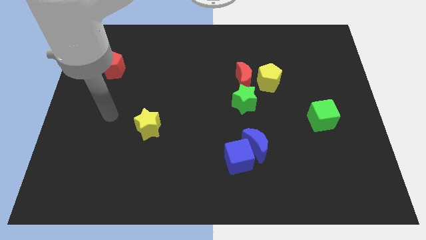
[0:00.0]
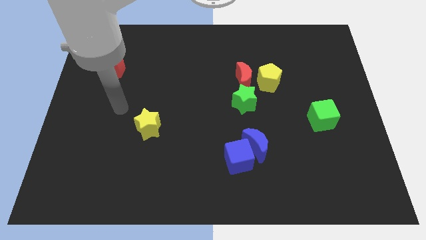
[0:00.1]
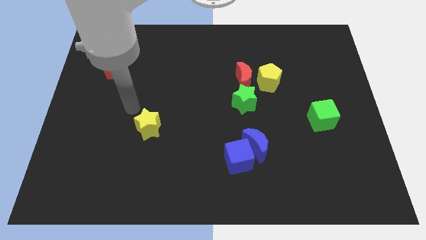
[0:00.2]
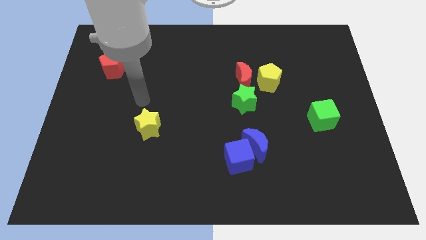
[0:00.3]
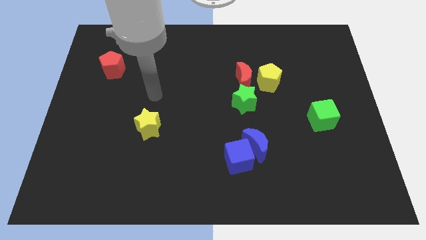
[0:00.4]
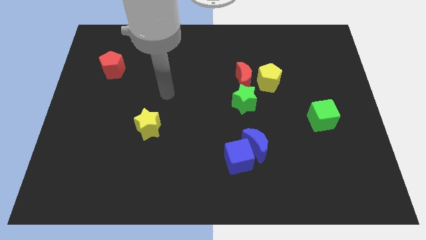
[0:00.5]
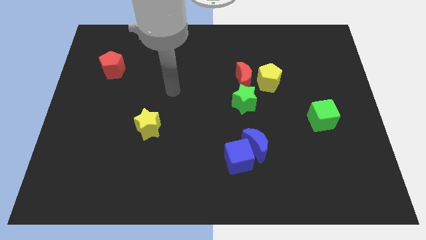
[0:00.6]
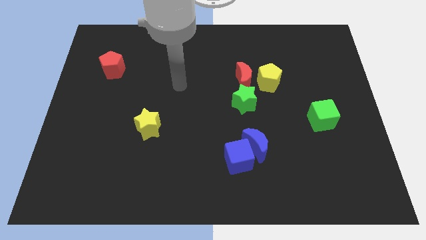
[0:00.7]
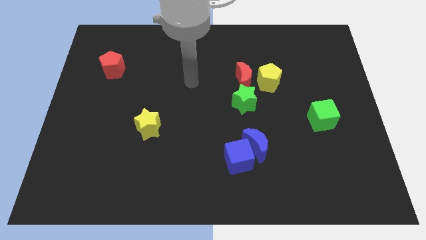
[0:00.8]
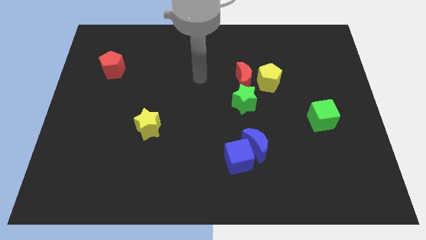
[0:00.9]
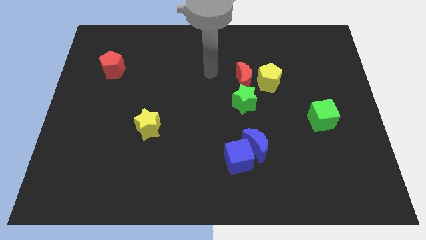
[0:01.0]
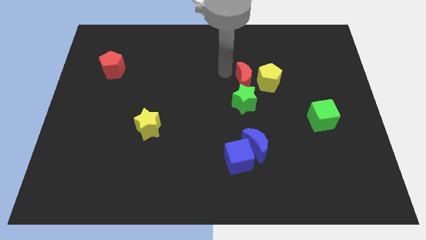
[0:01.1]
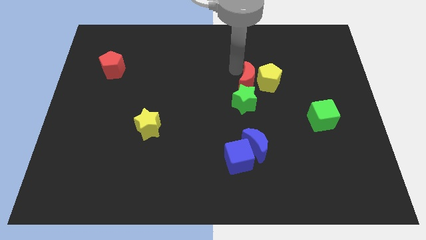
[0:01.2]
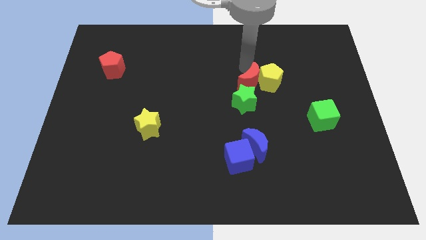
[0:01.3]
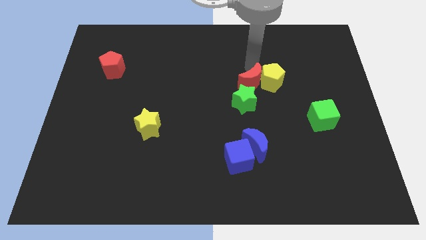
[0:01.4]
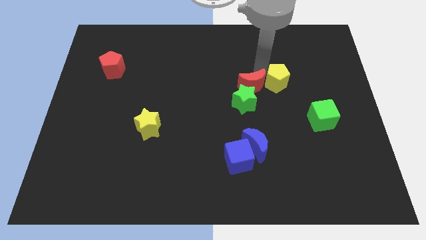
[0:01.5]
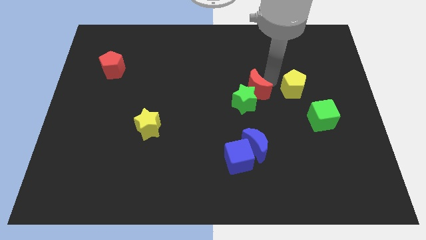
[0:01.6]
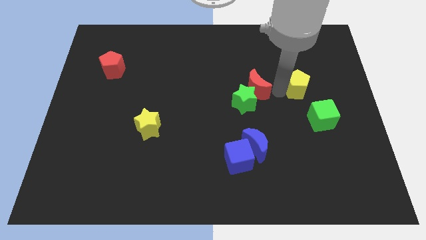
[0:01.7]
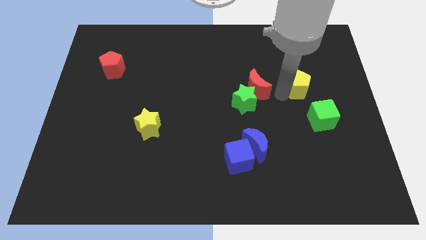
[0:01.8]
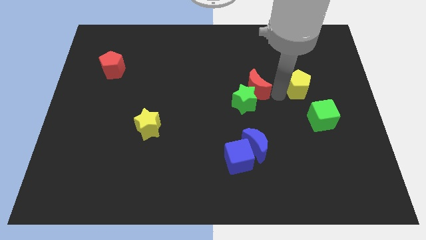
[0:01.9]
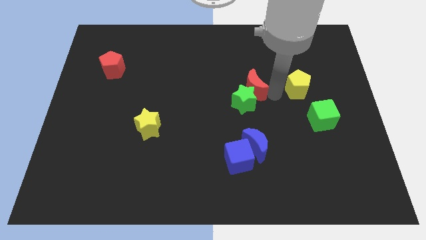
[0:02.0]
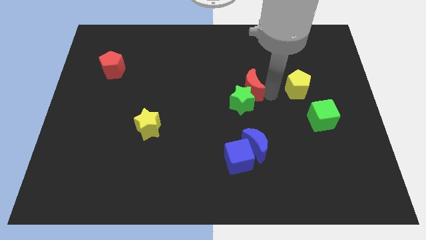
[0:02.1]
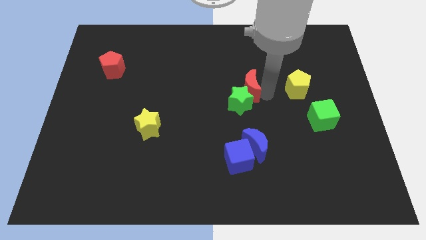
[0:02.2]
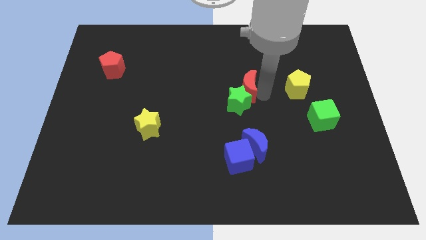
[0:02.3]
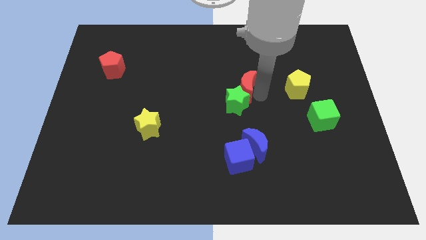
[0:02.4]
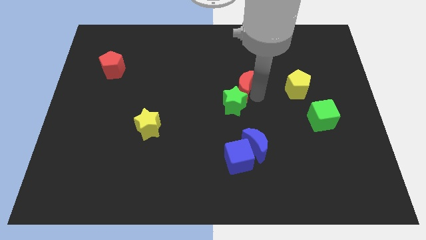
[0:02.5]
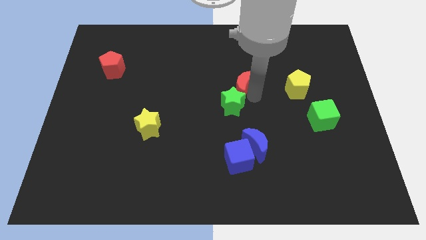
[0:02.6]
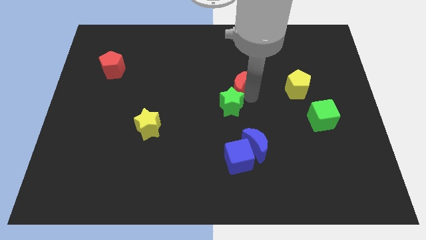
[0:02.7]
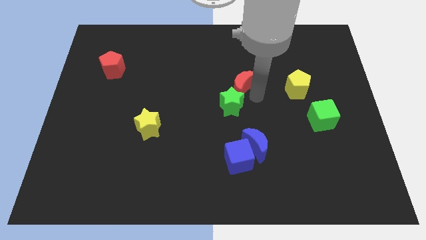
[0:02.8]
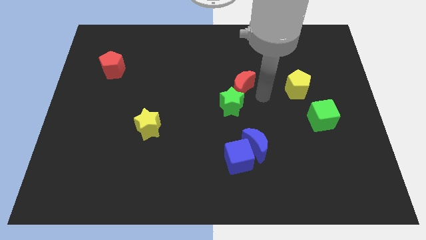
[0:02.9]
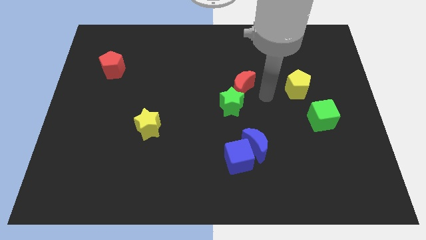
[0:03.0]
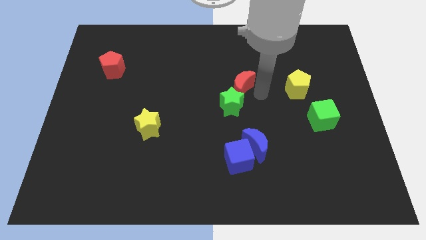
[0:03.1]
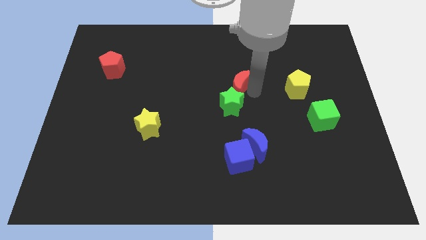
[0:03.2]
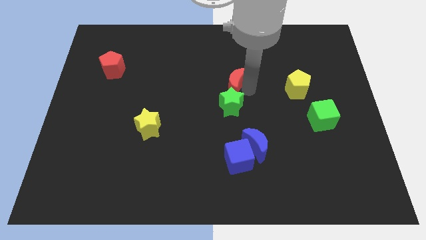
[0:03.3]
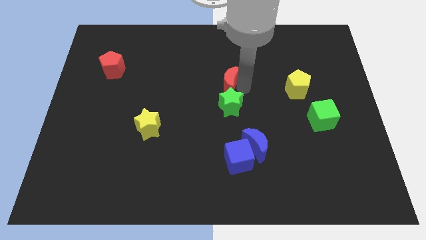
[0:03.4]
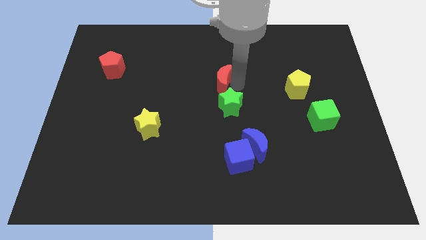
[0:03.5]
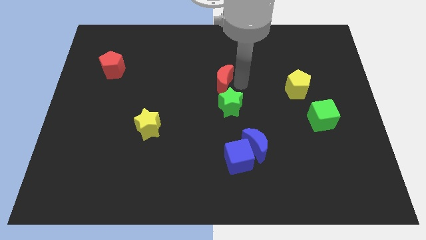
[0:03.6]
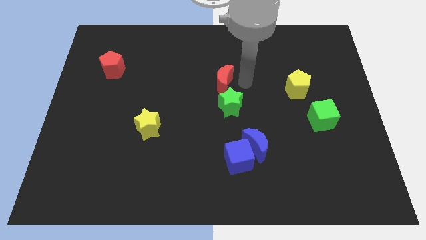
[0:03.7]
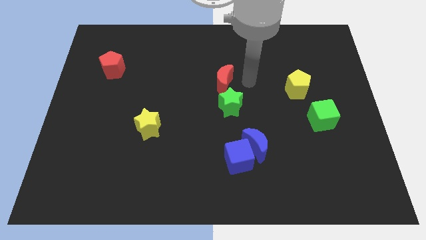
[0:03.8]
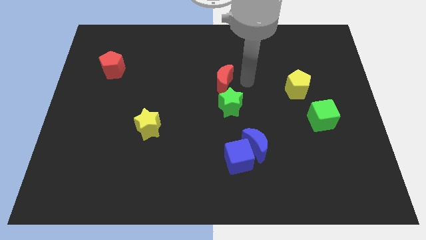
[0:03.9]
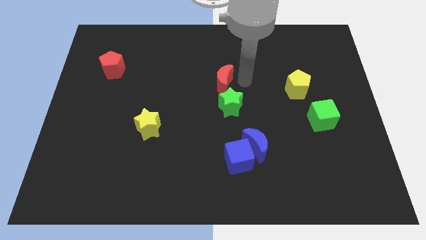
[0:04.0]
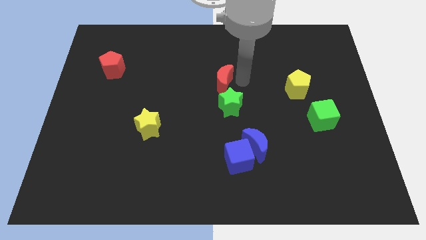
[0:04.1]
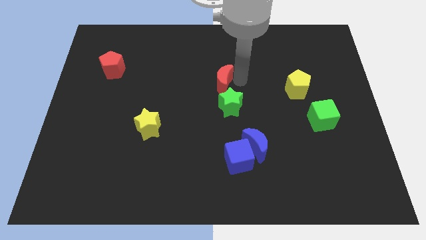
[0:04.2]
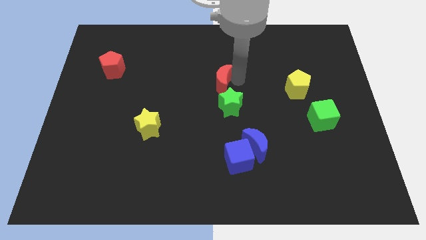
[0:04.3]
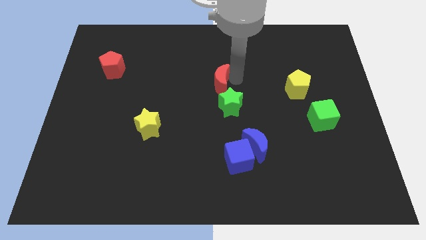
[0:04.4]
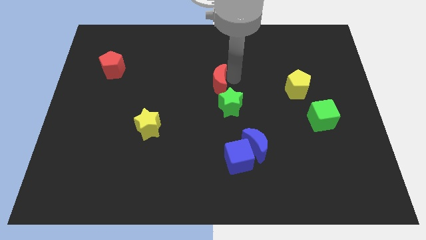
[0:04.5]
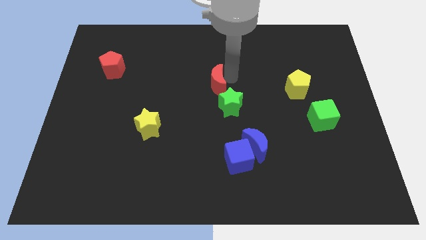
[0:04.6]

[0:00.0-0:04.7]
move the red moon to the left a little

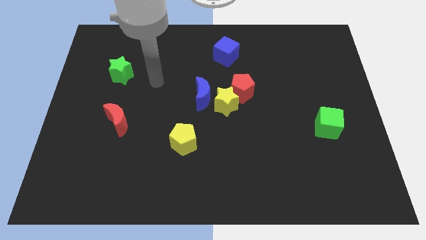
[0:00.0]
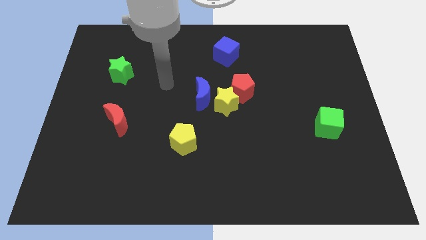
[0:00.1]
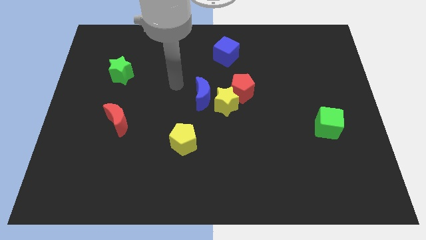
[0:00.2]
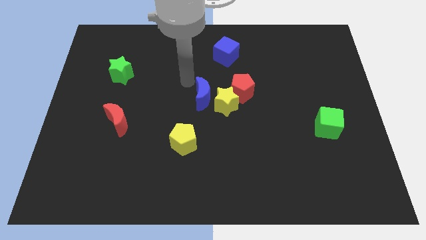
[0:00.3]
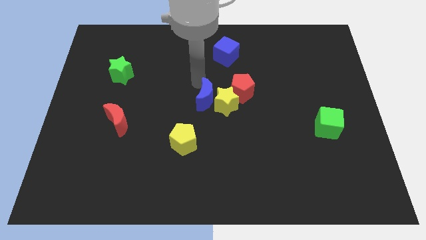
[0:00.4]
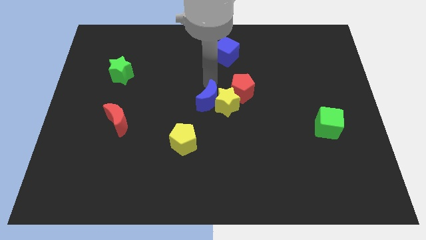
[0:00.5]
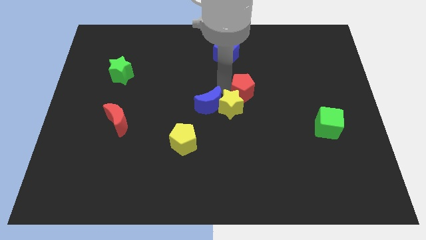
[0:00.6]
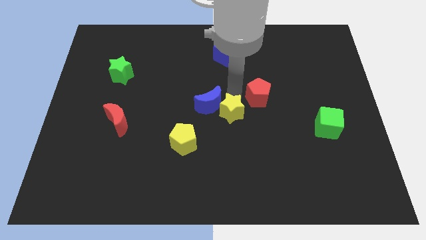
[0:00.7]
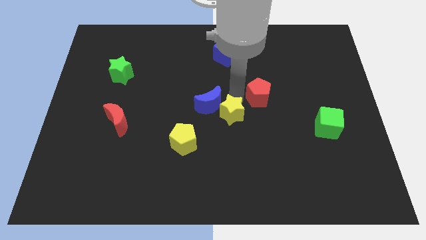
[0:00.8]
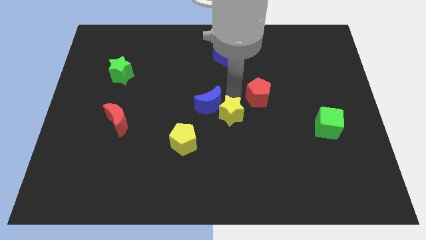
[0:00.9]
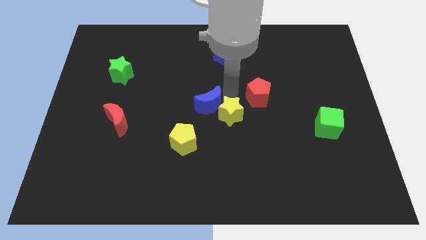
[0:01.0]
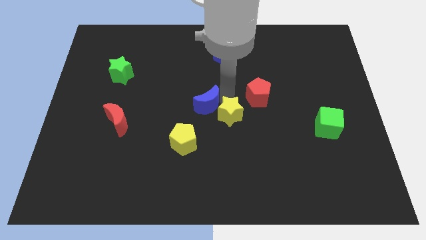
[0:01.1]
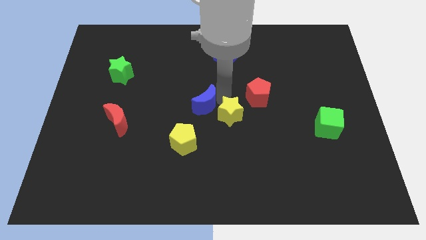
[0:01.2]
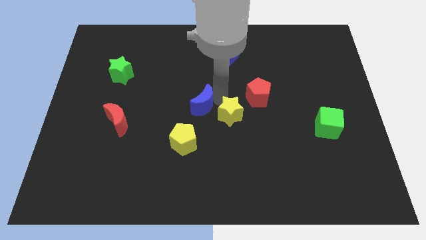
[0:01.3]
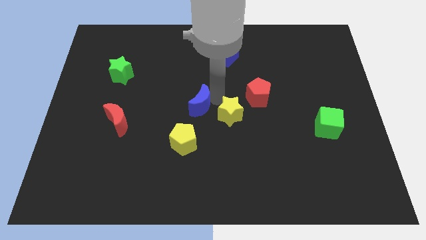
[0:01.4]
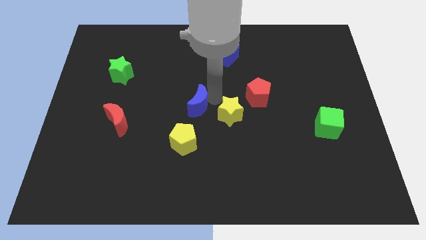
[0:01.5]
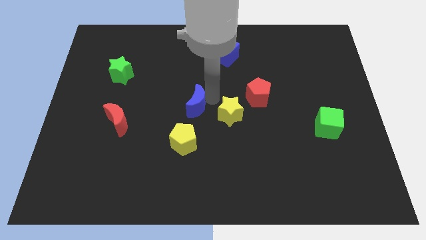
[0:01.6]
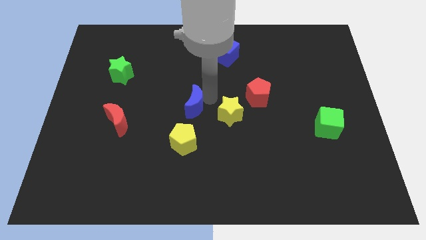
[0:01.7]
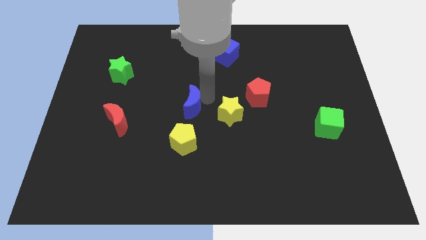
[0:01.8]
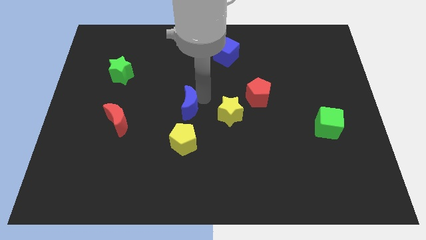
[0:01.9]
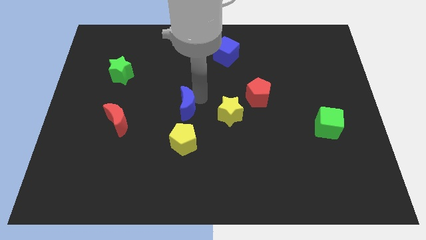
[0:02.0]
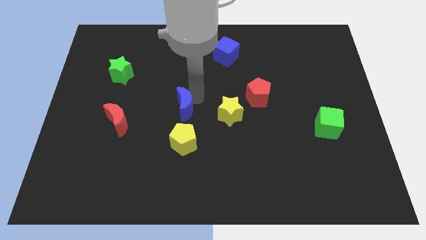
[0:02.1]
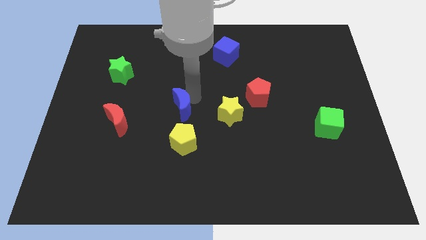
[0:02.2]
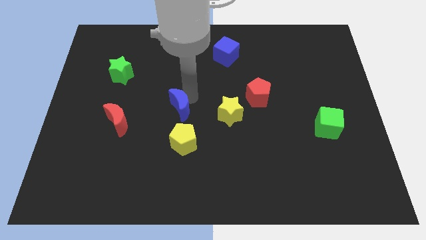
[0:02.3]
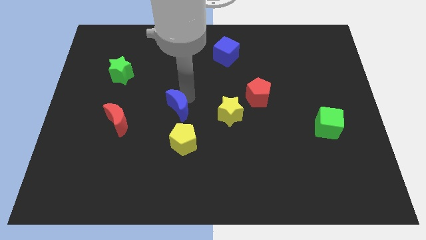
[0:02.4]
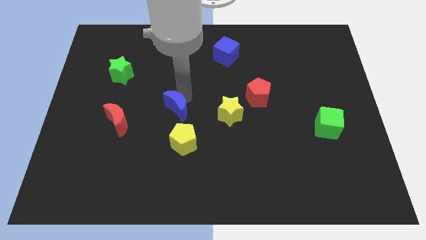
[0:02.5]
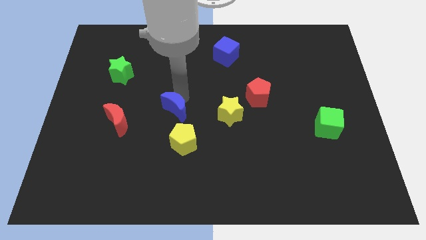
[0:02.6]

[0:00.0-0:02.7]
push the blue moon down and to the left a little bit

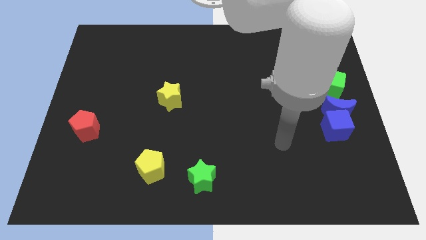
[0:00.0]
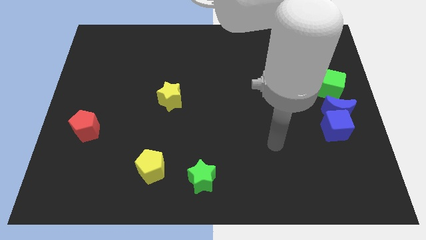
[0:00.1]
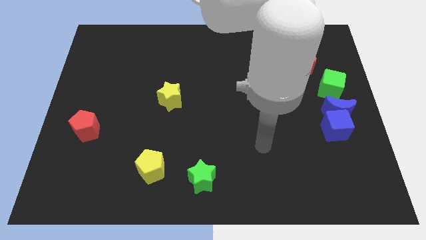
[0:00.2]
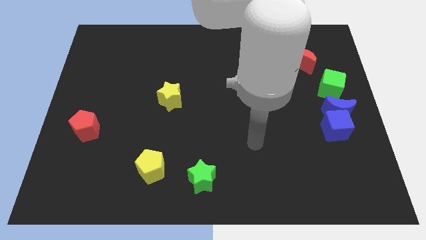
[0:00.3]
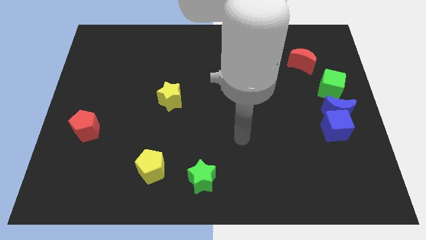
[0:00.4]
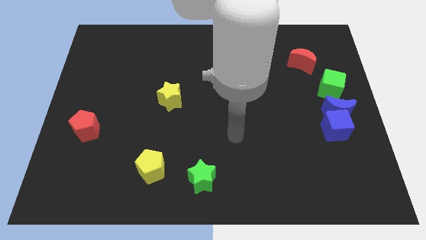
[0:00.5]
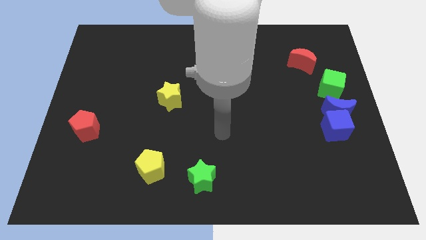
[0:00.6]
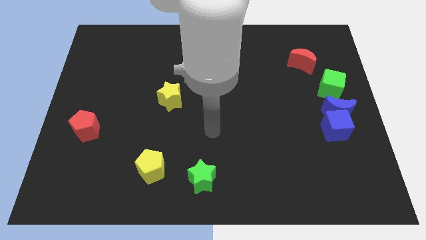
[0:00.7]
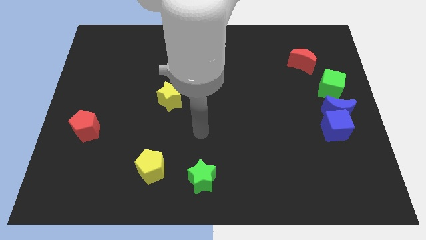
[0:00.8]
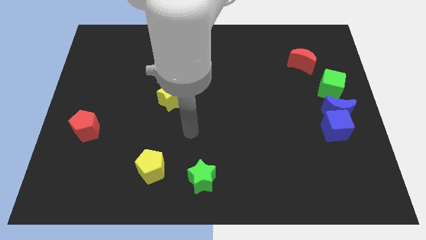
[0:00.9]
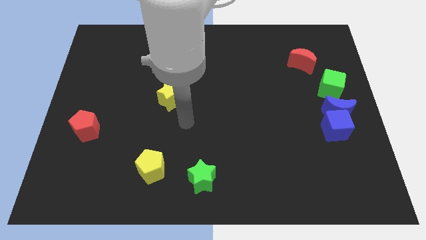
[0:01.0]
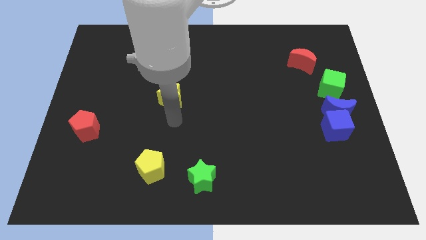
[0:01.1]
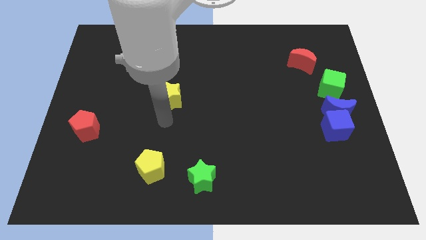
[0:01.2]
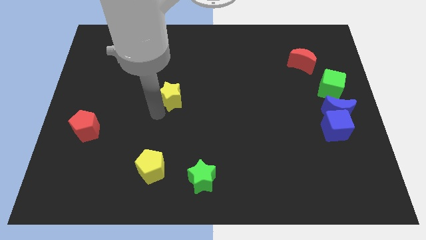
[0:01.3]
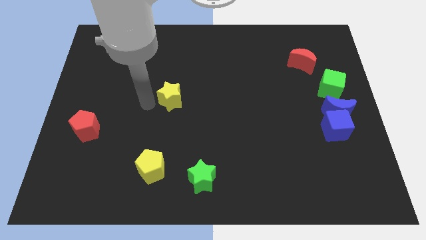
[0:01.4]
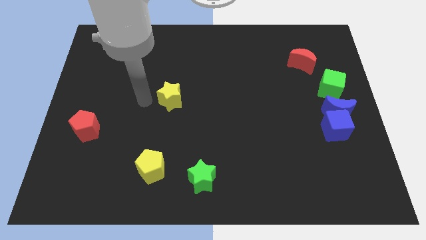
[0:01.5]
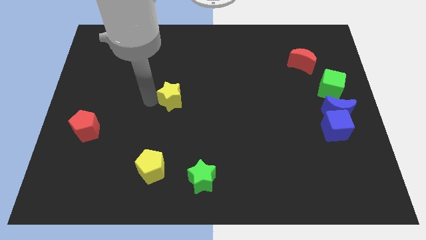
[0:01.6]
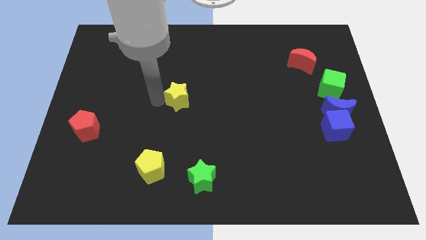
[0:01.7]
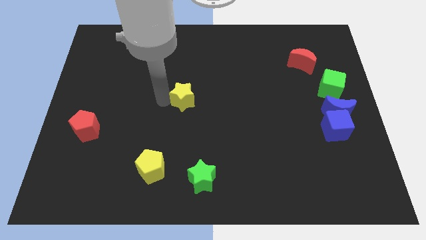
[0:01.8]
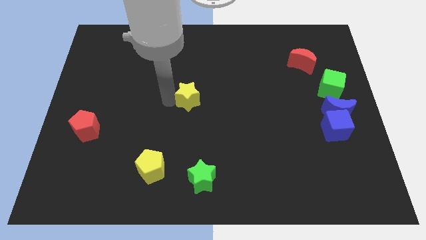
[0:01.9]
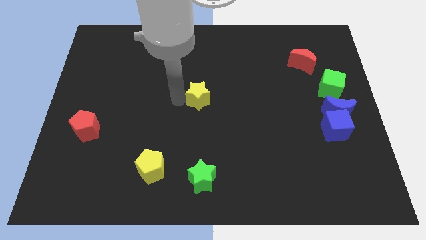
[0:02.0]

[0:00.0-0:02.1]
slightly push the yellow star to the right
